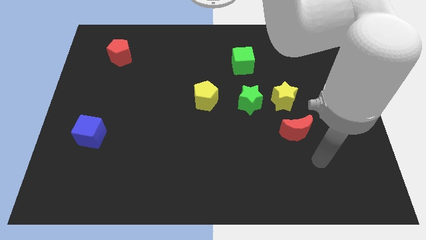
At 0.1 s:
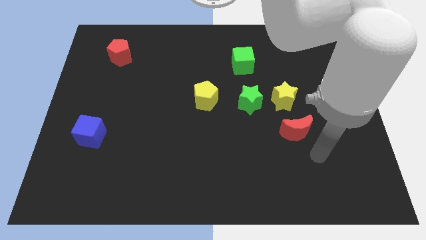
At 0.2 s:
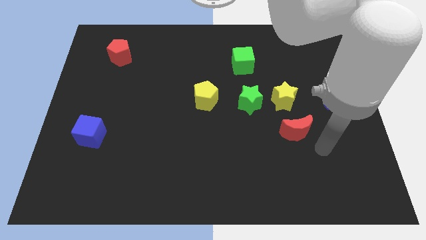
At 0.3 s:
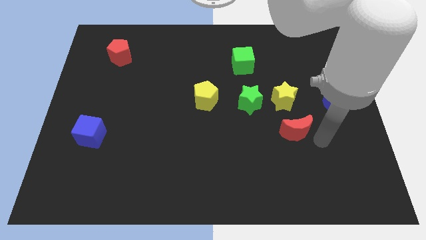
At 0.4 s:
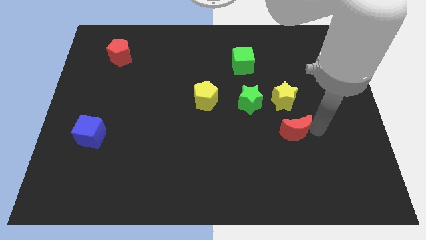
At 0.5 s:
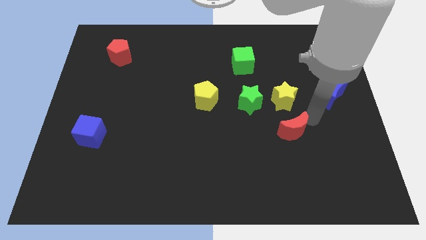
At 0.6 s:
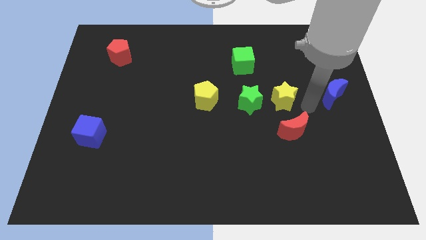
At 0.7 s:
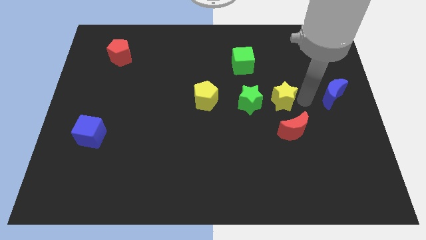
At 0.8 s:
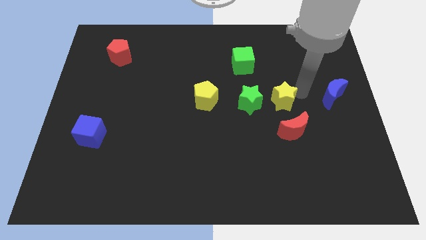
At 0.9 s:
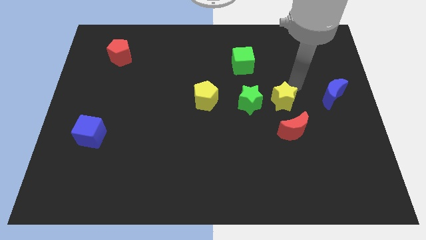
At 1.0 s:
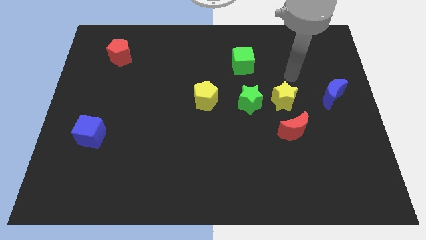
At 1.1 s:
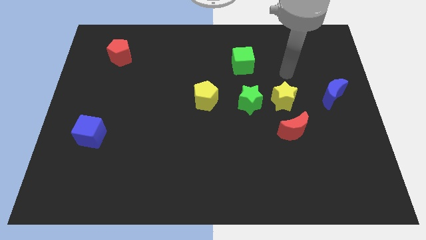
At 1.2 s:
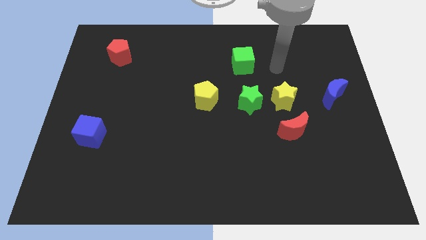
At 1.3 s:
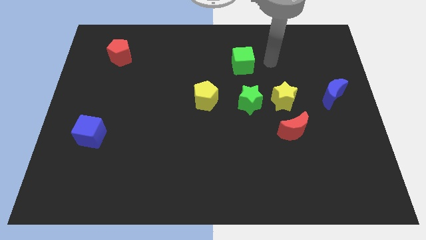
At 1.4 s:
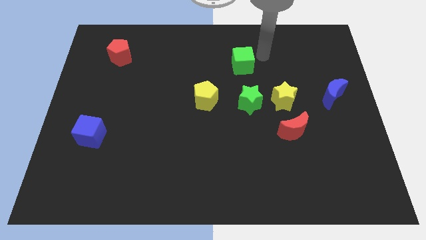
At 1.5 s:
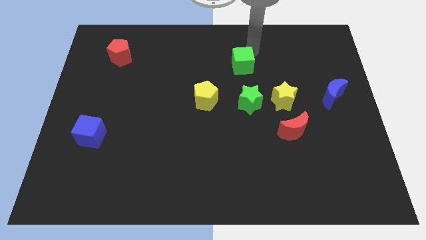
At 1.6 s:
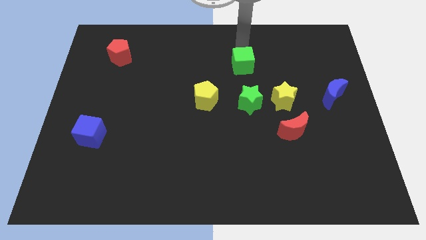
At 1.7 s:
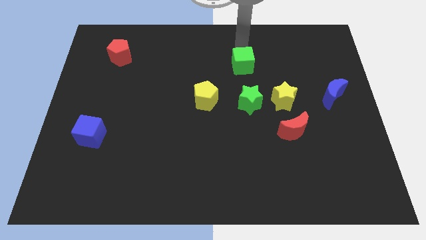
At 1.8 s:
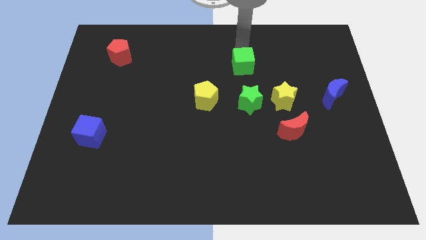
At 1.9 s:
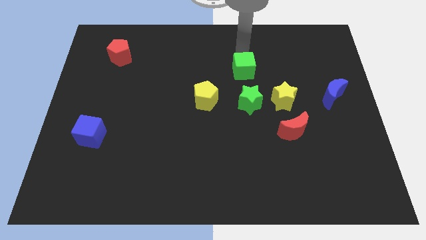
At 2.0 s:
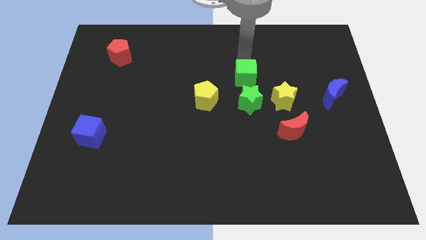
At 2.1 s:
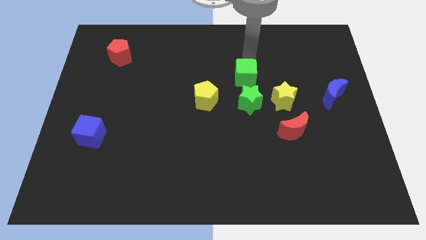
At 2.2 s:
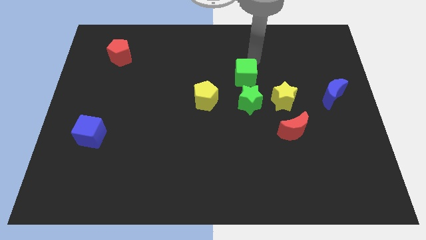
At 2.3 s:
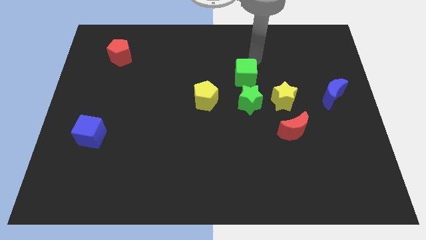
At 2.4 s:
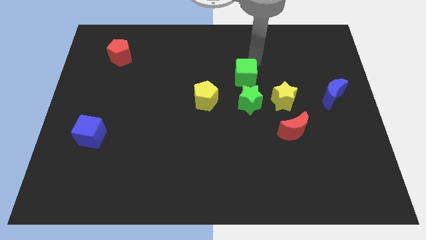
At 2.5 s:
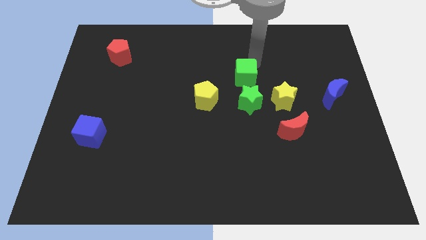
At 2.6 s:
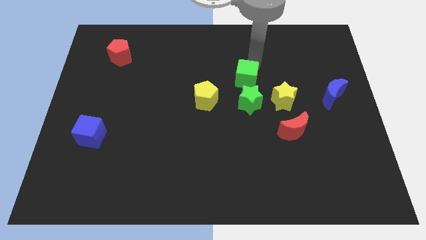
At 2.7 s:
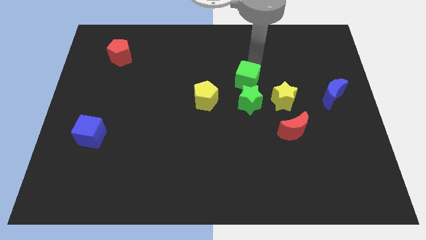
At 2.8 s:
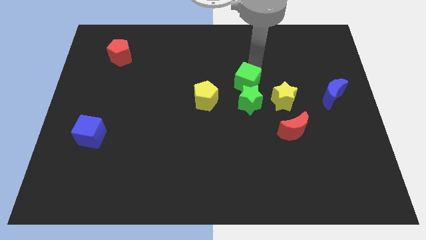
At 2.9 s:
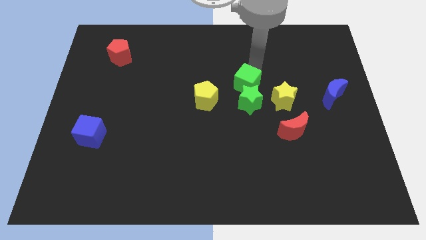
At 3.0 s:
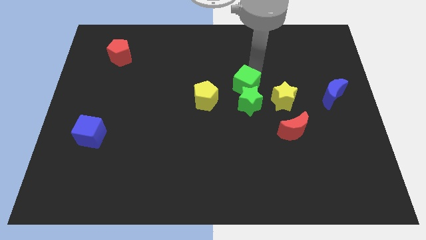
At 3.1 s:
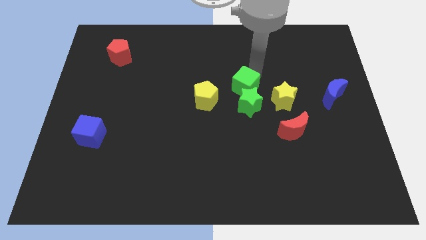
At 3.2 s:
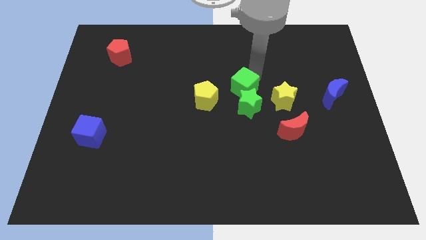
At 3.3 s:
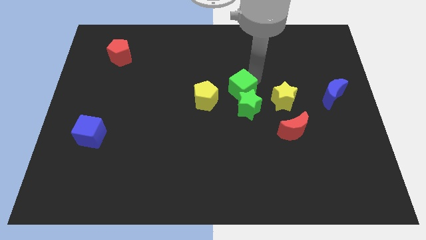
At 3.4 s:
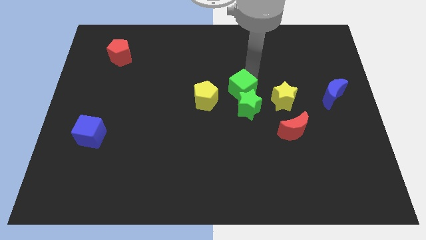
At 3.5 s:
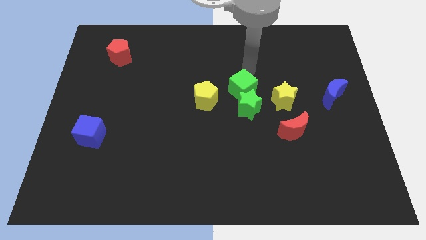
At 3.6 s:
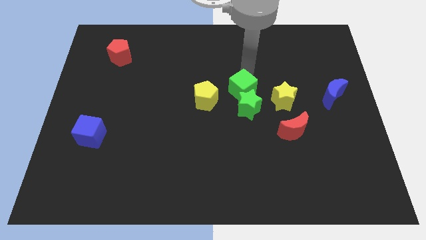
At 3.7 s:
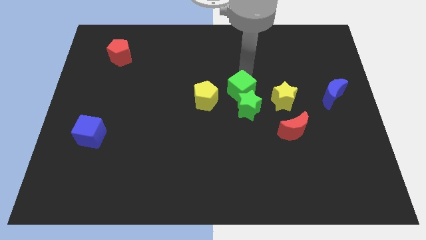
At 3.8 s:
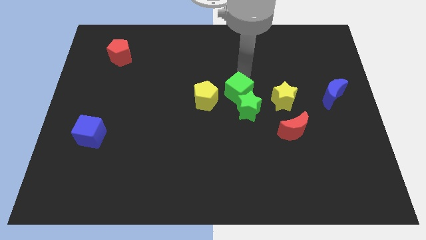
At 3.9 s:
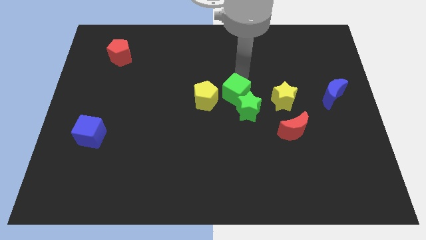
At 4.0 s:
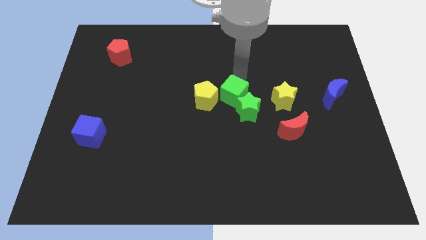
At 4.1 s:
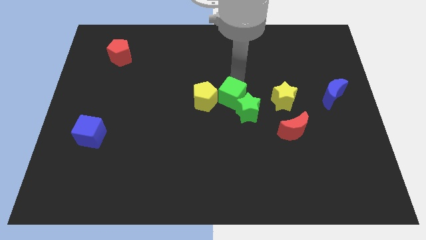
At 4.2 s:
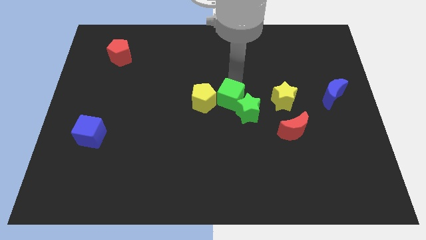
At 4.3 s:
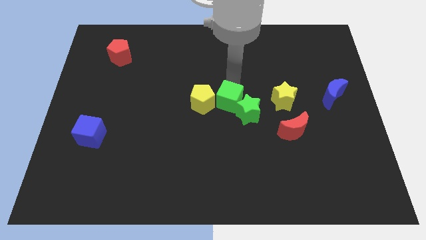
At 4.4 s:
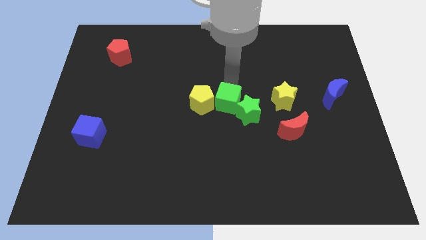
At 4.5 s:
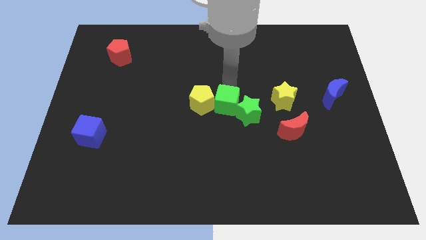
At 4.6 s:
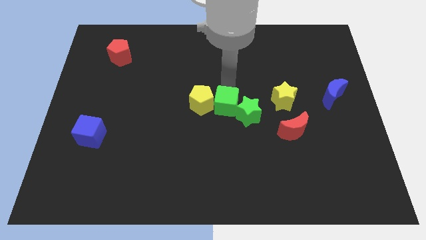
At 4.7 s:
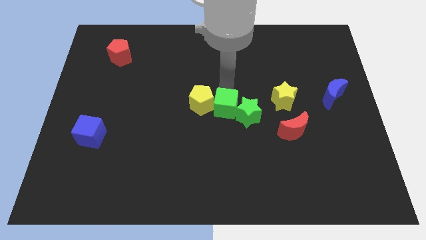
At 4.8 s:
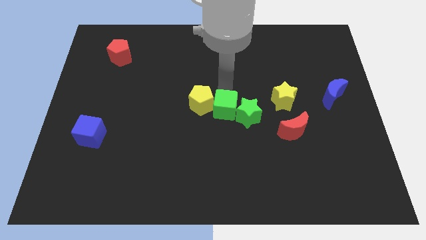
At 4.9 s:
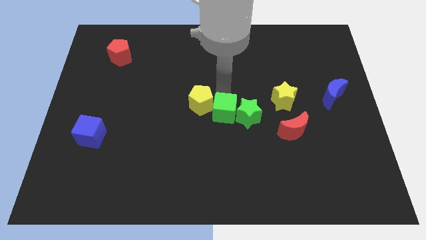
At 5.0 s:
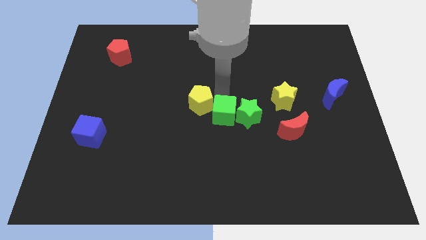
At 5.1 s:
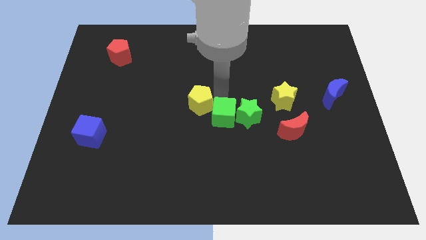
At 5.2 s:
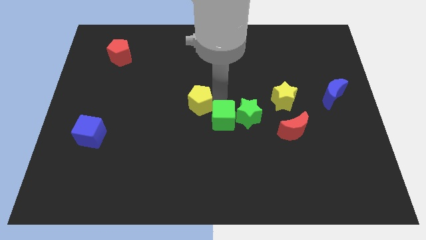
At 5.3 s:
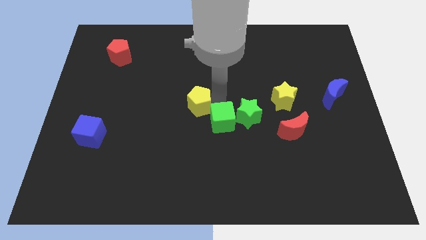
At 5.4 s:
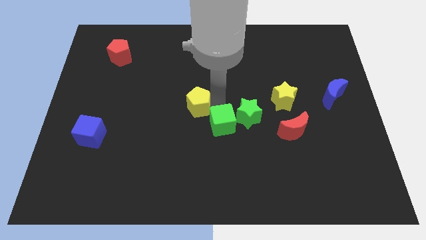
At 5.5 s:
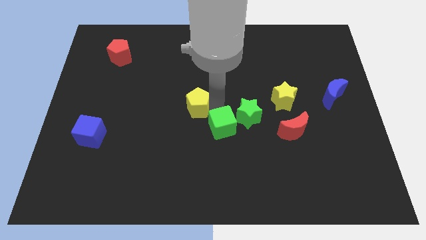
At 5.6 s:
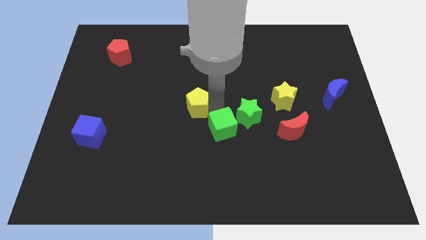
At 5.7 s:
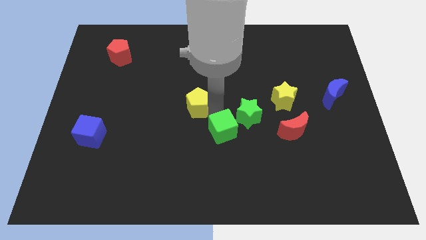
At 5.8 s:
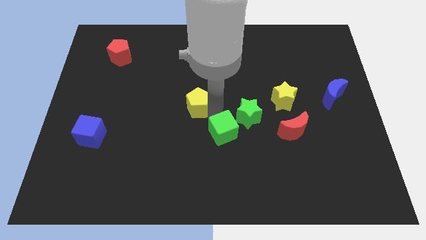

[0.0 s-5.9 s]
slide the green cube down

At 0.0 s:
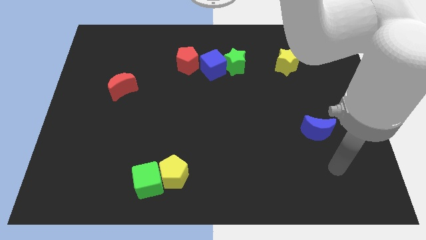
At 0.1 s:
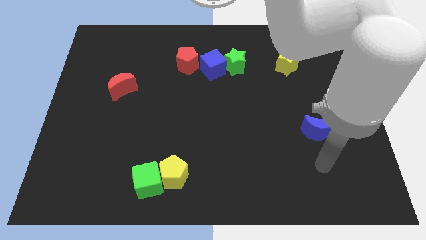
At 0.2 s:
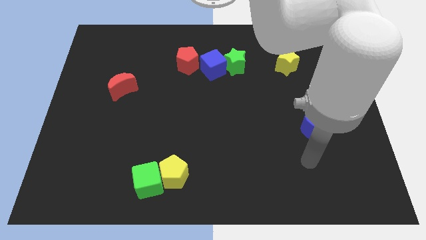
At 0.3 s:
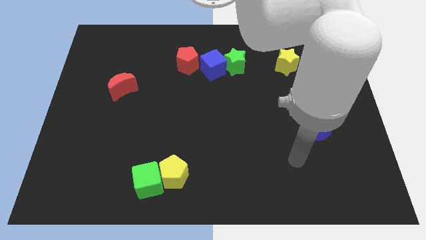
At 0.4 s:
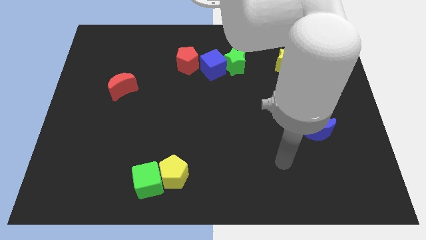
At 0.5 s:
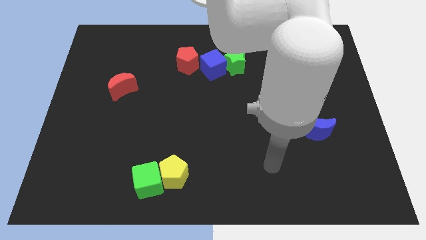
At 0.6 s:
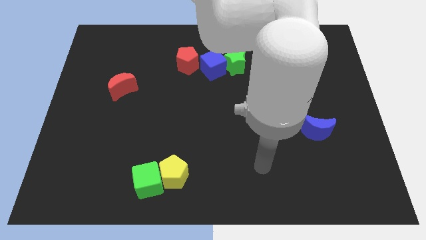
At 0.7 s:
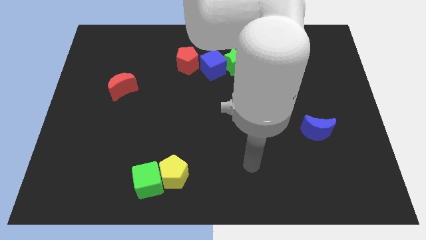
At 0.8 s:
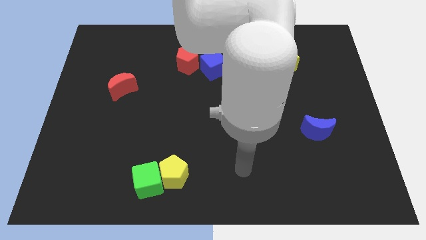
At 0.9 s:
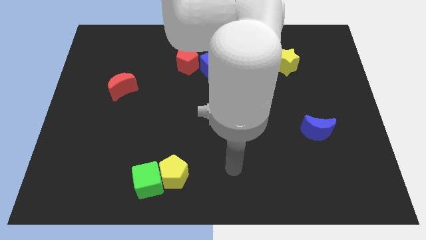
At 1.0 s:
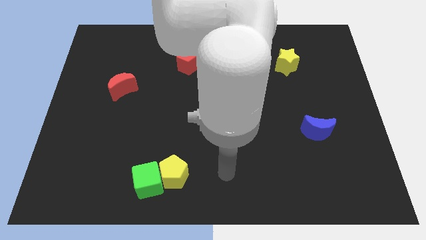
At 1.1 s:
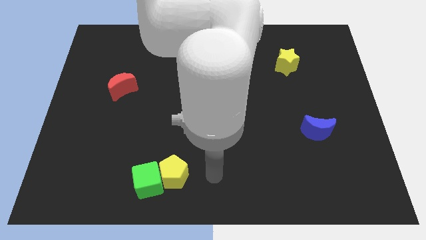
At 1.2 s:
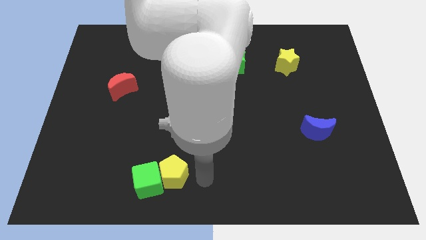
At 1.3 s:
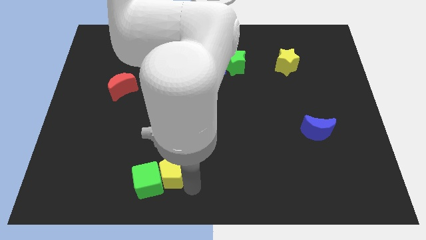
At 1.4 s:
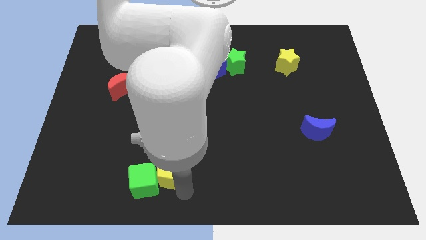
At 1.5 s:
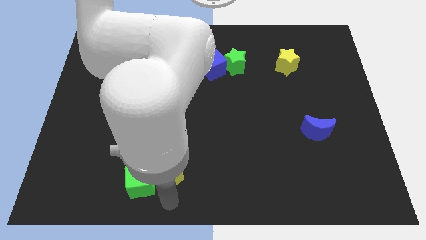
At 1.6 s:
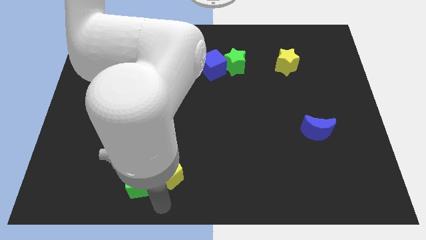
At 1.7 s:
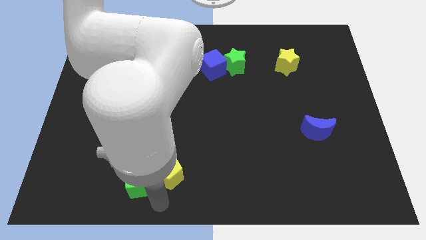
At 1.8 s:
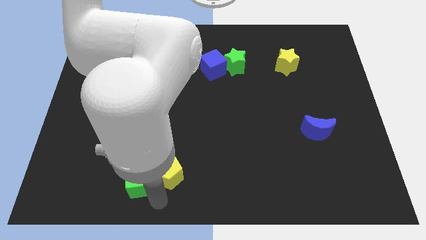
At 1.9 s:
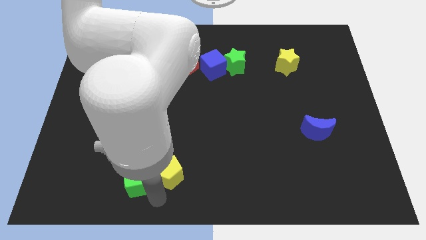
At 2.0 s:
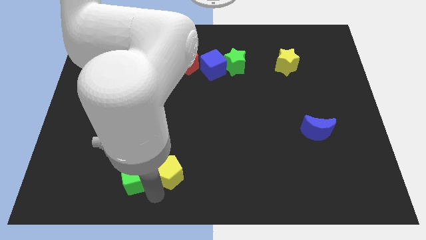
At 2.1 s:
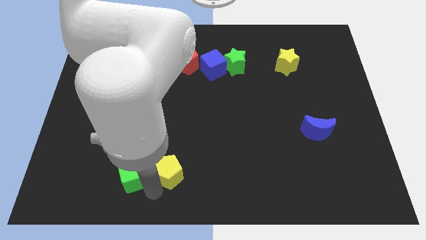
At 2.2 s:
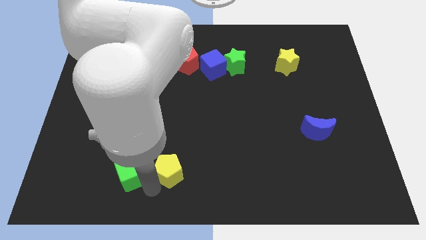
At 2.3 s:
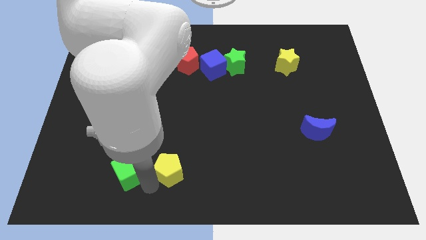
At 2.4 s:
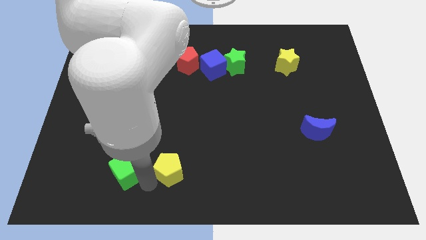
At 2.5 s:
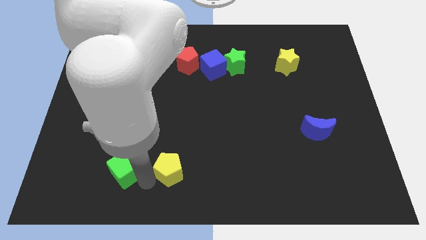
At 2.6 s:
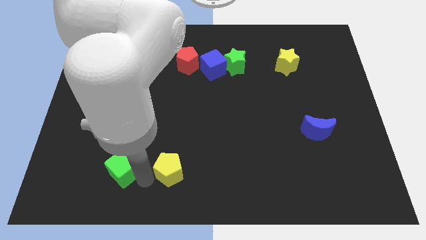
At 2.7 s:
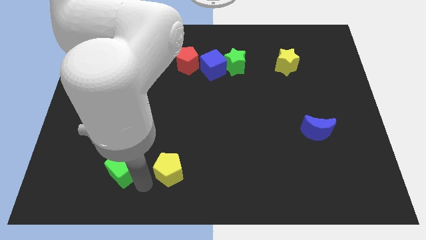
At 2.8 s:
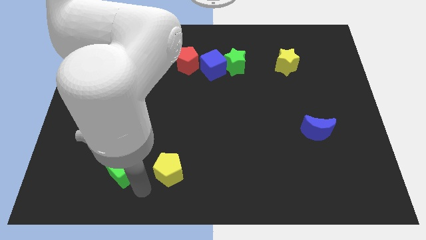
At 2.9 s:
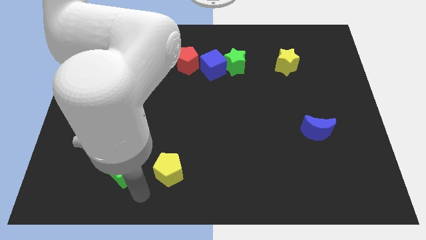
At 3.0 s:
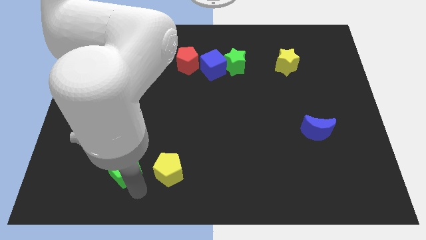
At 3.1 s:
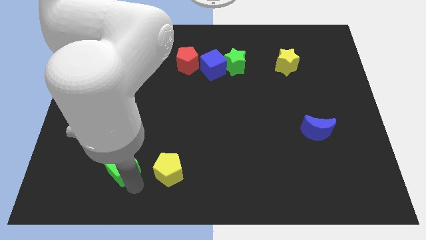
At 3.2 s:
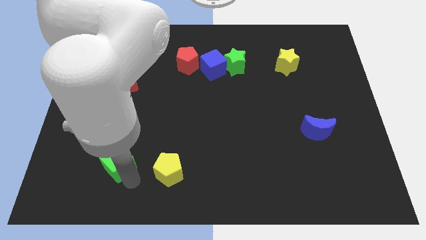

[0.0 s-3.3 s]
push the green cube diagonally upwards and to the left somewhat
